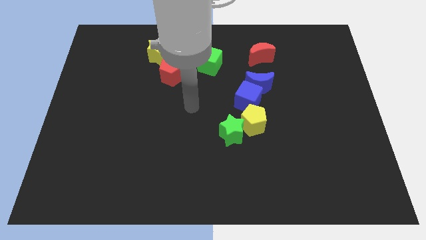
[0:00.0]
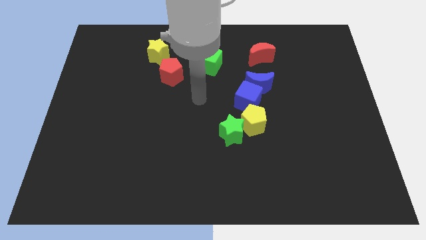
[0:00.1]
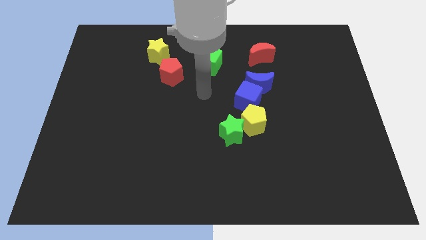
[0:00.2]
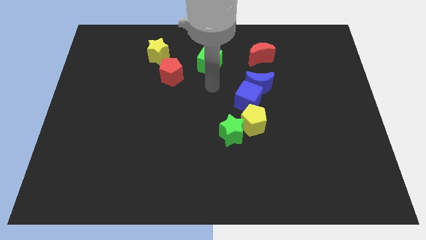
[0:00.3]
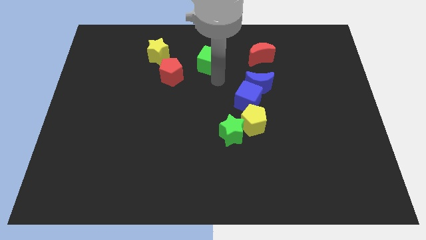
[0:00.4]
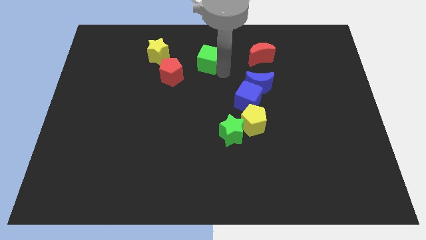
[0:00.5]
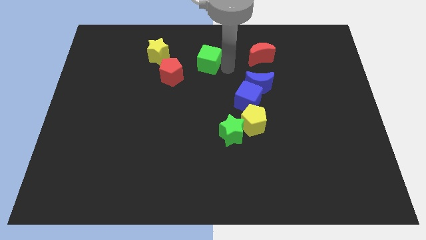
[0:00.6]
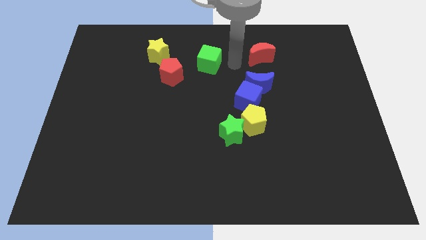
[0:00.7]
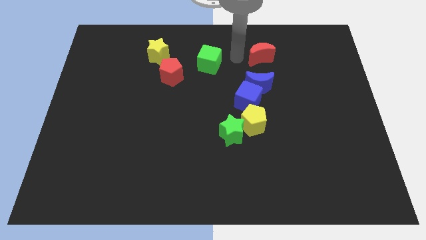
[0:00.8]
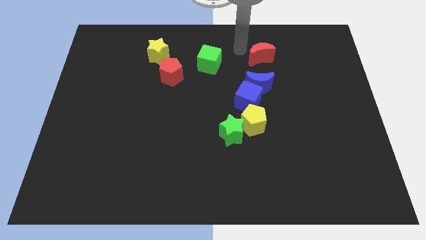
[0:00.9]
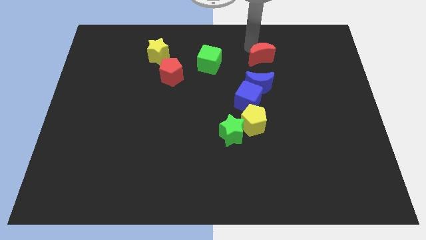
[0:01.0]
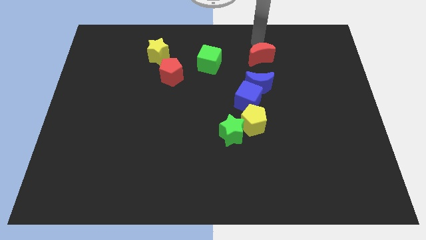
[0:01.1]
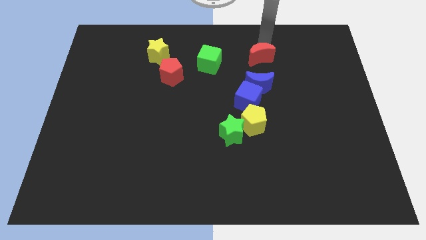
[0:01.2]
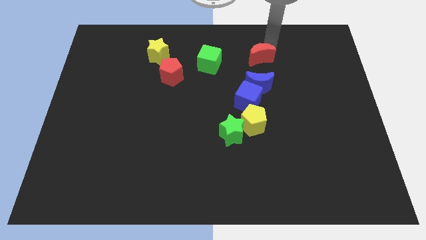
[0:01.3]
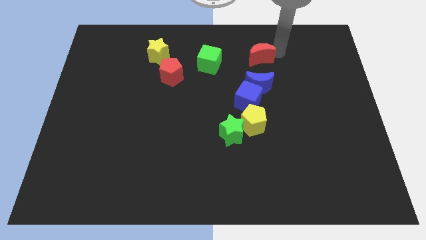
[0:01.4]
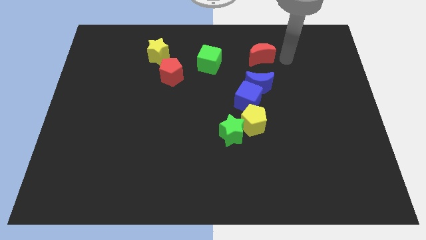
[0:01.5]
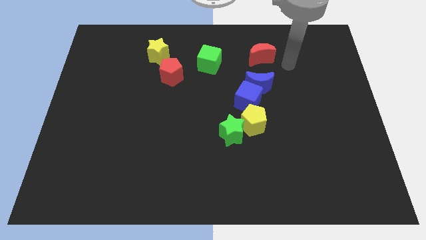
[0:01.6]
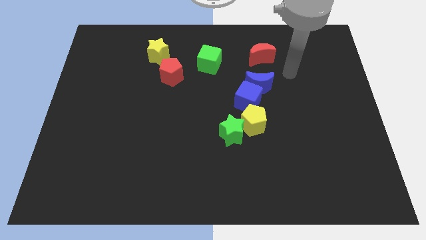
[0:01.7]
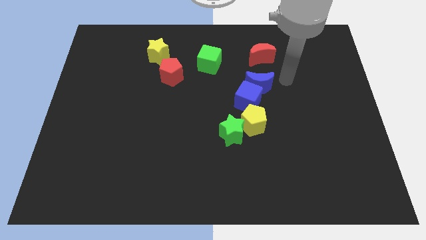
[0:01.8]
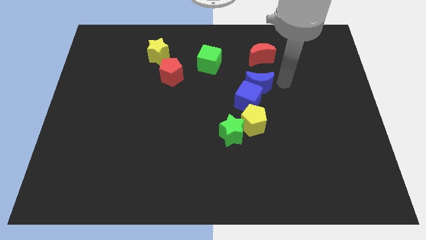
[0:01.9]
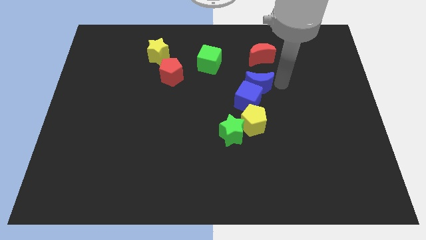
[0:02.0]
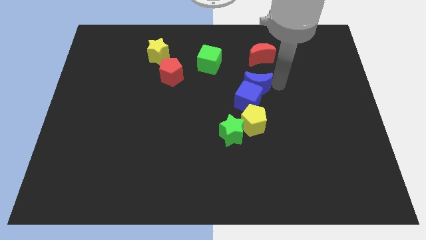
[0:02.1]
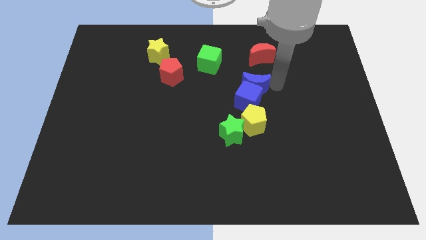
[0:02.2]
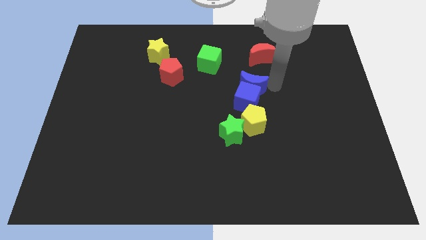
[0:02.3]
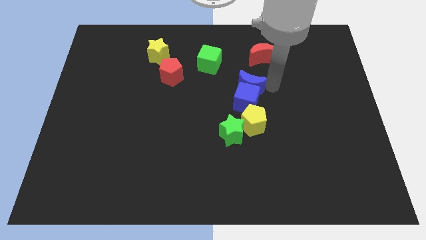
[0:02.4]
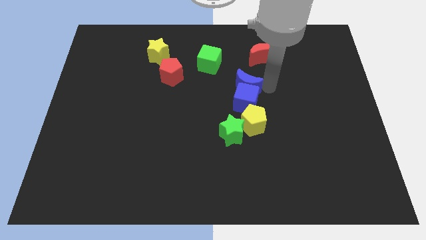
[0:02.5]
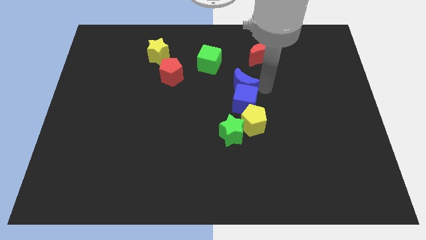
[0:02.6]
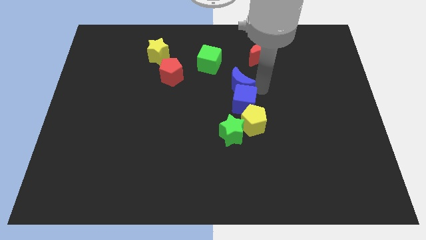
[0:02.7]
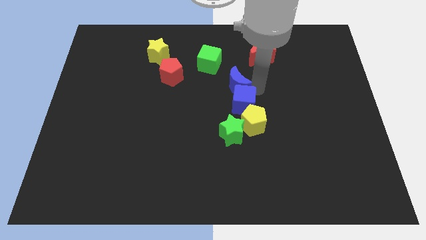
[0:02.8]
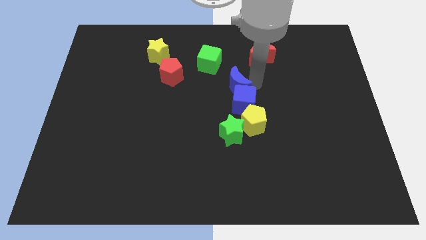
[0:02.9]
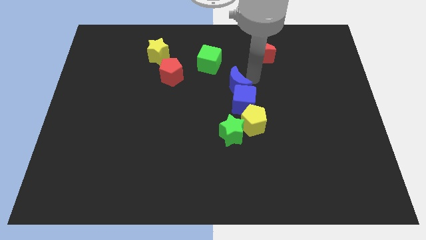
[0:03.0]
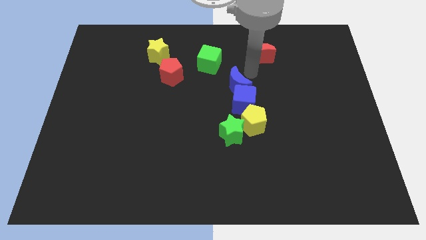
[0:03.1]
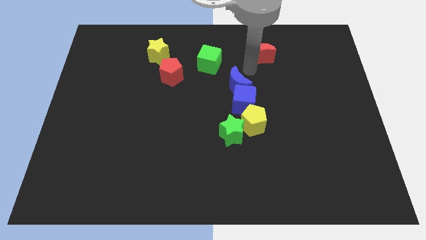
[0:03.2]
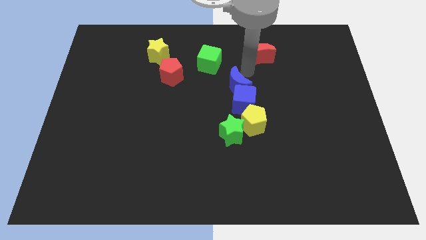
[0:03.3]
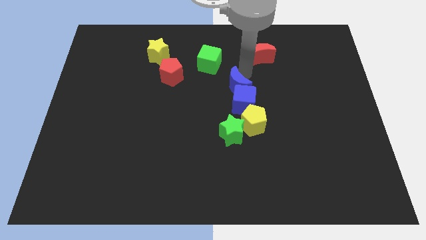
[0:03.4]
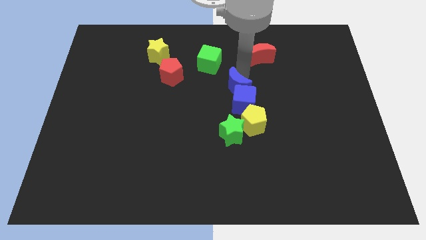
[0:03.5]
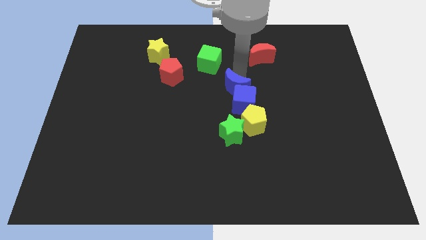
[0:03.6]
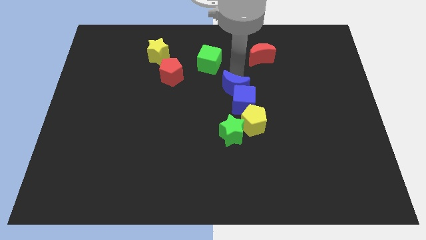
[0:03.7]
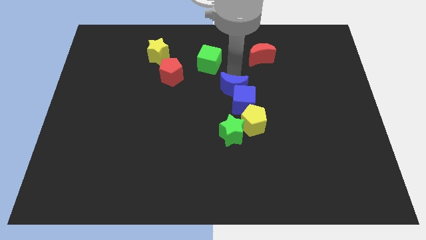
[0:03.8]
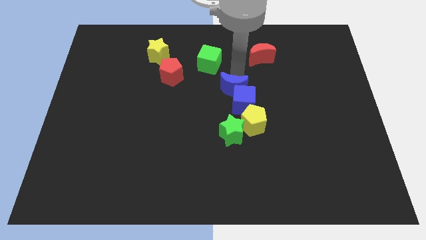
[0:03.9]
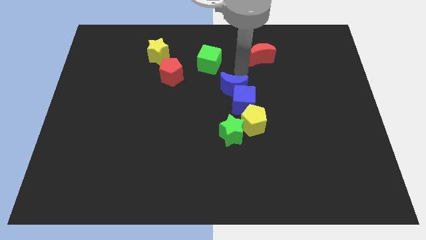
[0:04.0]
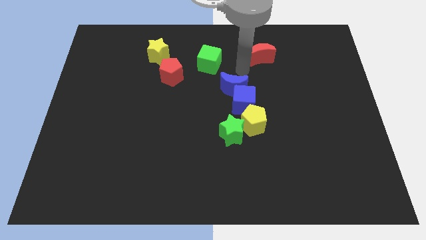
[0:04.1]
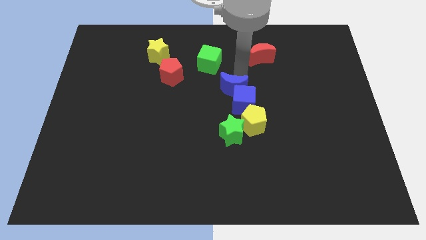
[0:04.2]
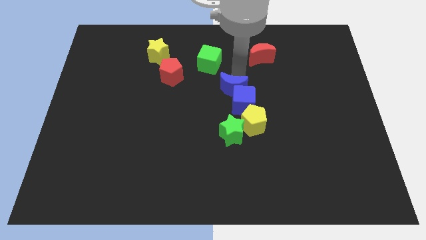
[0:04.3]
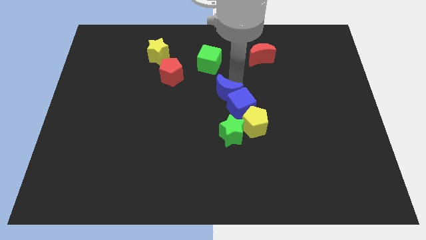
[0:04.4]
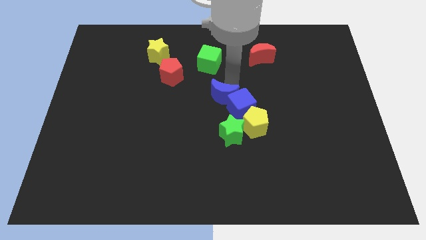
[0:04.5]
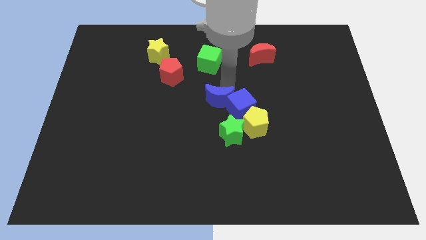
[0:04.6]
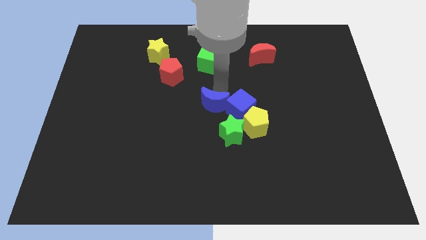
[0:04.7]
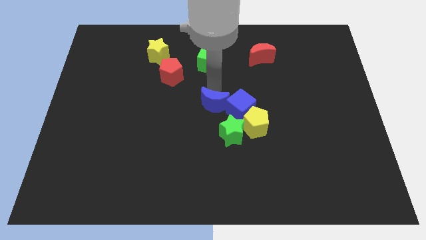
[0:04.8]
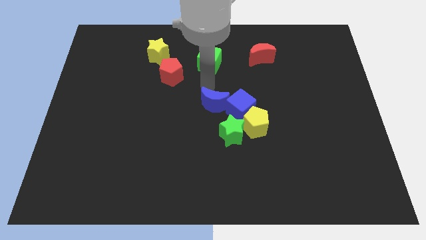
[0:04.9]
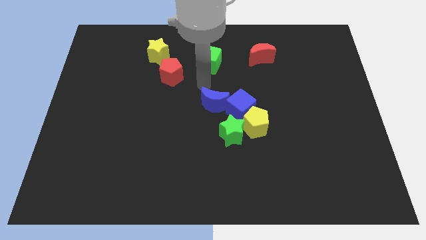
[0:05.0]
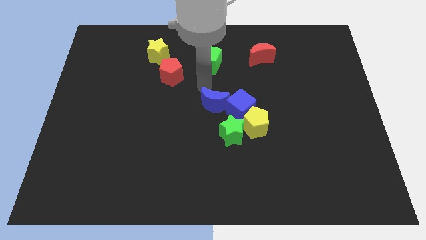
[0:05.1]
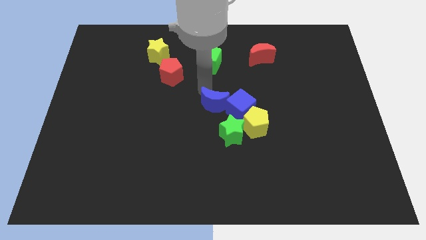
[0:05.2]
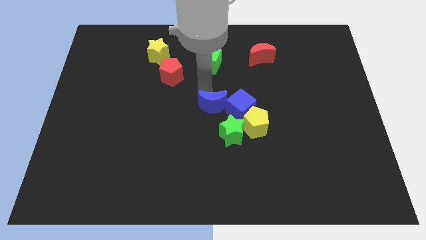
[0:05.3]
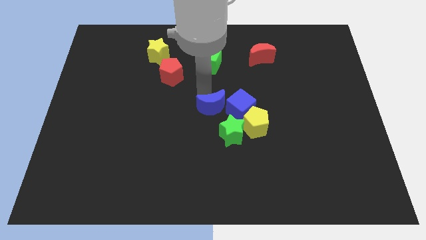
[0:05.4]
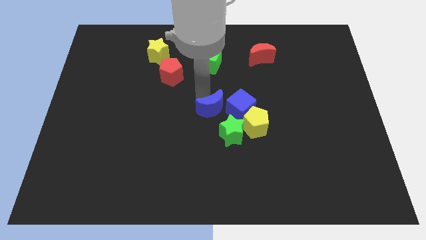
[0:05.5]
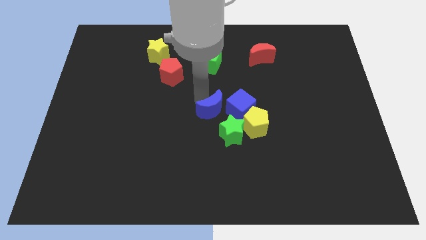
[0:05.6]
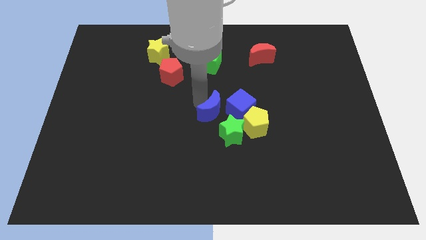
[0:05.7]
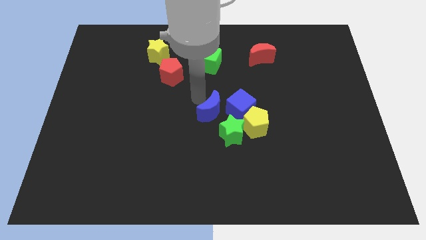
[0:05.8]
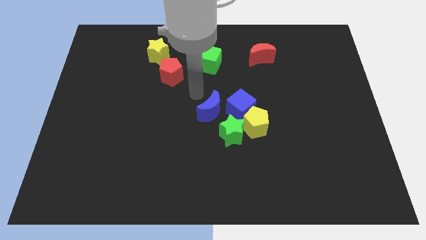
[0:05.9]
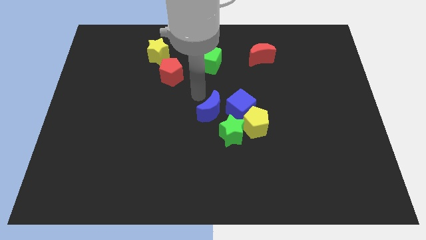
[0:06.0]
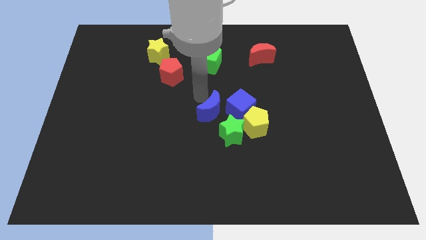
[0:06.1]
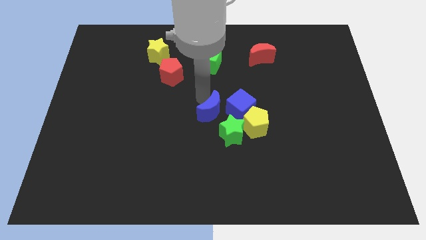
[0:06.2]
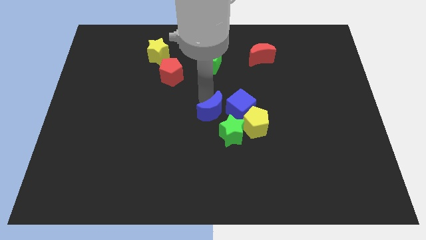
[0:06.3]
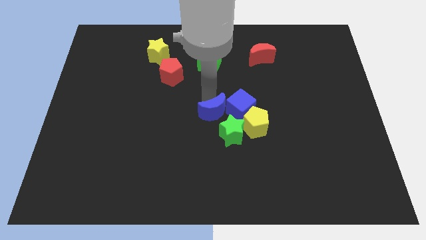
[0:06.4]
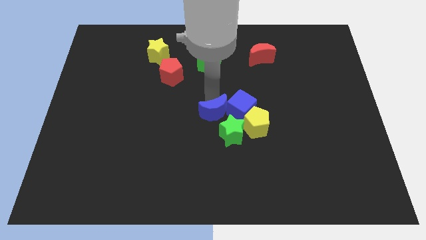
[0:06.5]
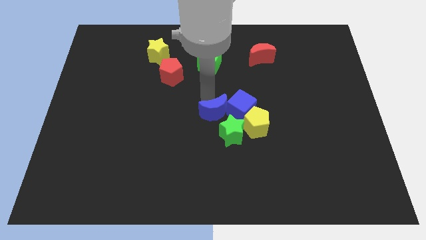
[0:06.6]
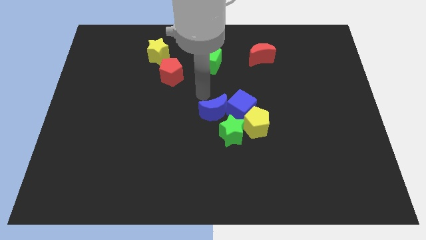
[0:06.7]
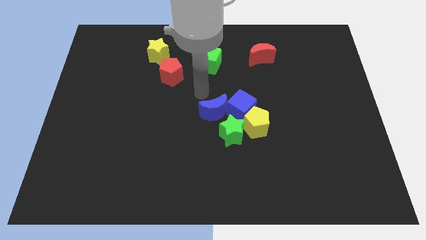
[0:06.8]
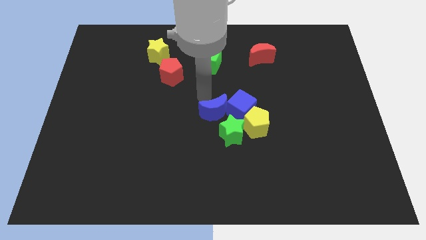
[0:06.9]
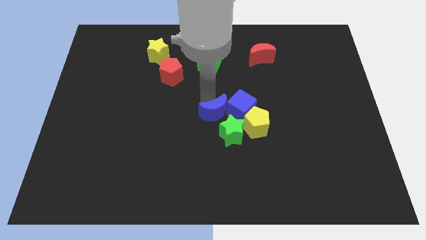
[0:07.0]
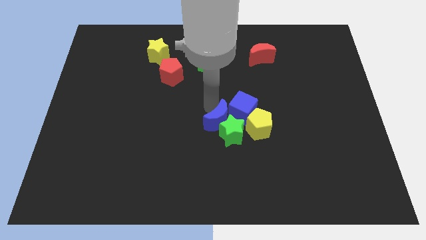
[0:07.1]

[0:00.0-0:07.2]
move the blue moon to the green star
